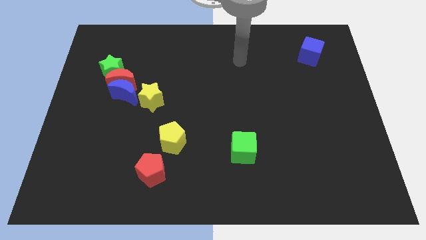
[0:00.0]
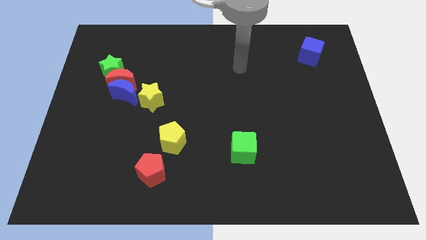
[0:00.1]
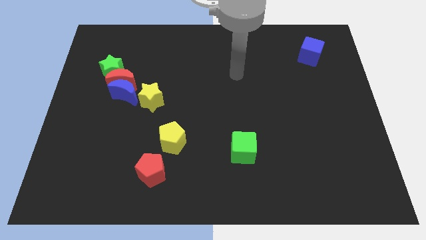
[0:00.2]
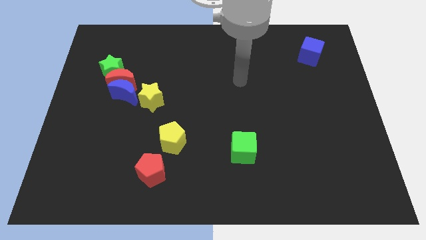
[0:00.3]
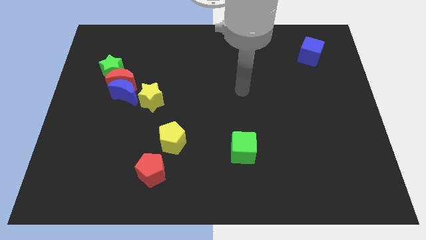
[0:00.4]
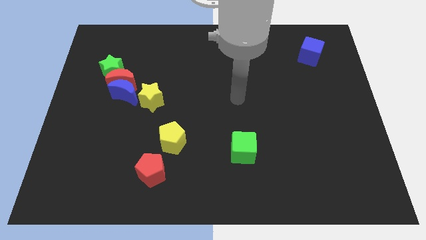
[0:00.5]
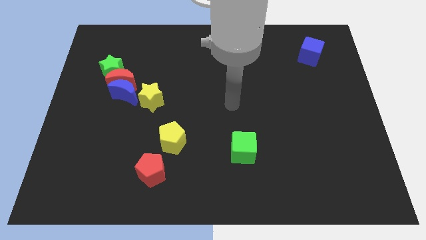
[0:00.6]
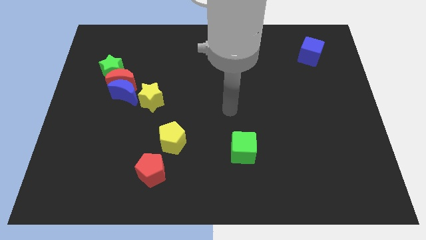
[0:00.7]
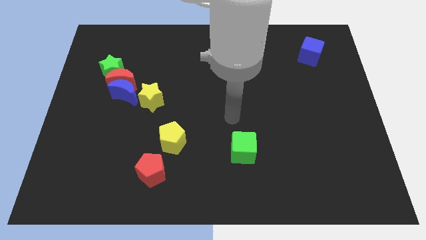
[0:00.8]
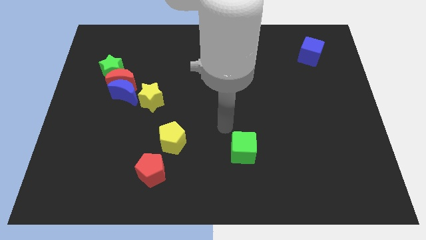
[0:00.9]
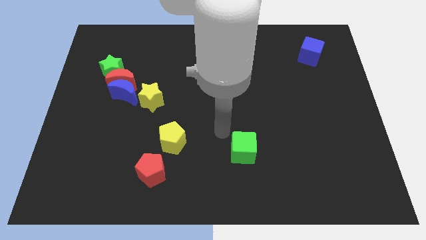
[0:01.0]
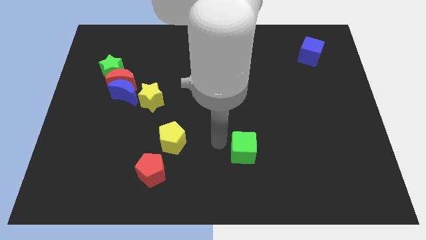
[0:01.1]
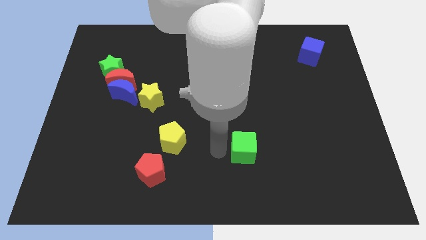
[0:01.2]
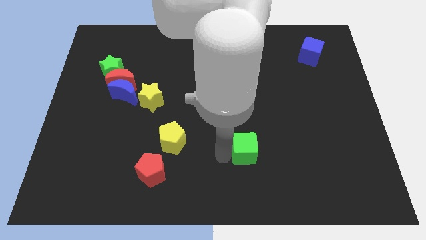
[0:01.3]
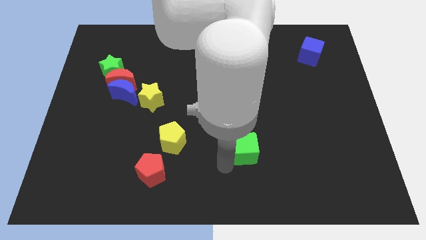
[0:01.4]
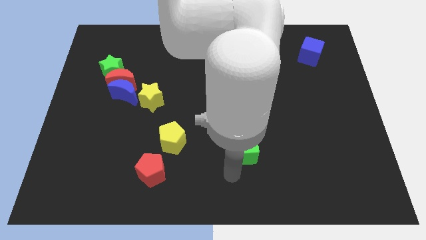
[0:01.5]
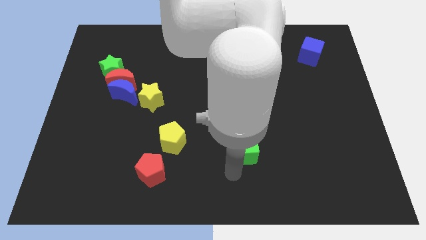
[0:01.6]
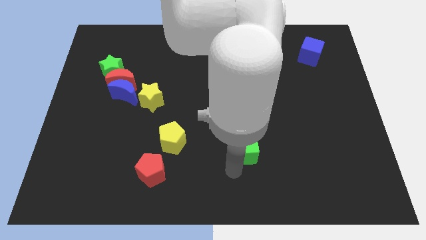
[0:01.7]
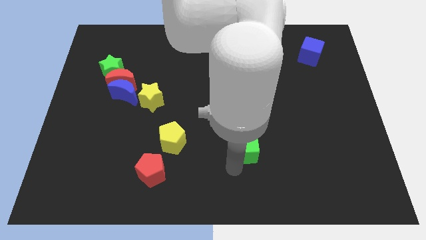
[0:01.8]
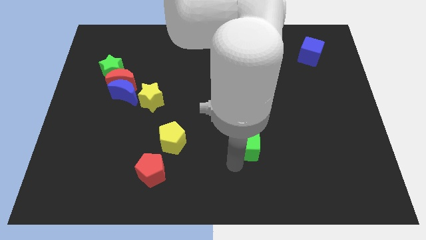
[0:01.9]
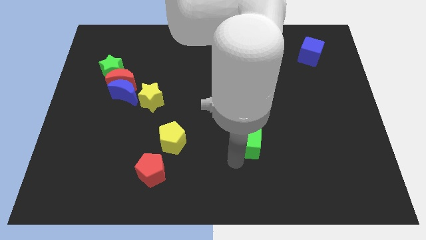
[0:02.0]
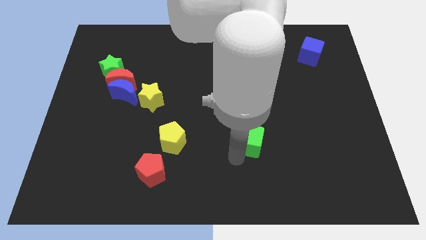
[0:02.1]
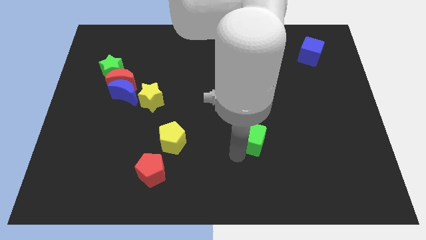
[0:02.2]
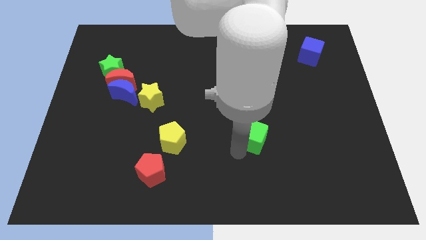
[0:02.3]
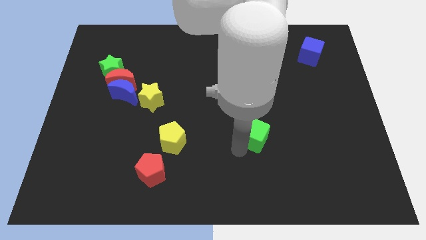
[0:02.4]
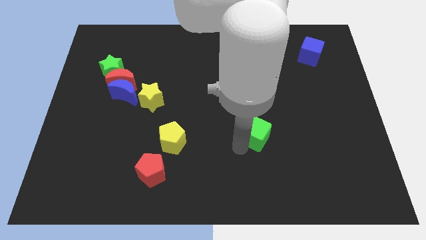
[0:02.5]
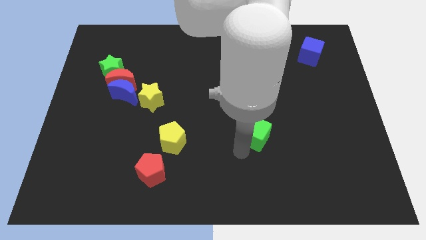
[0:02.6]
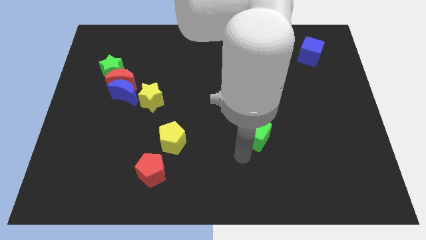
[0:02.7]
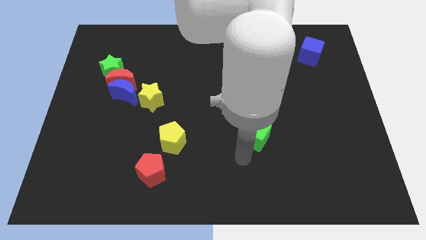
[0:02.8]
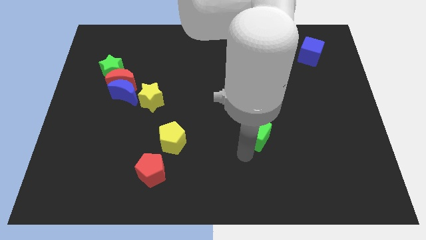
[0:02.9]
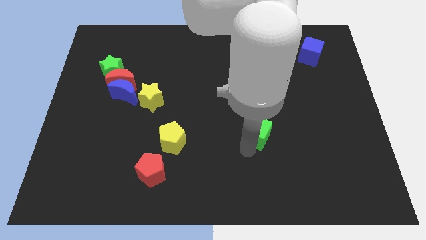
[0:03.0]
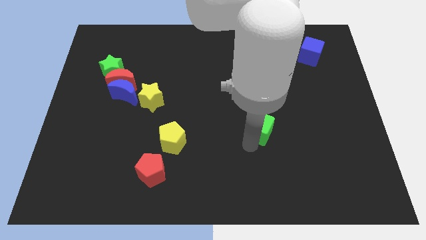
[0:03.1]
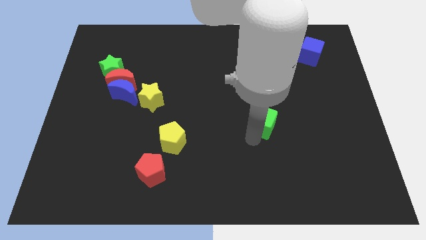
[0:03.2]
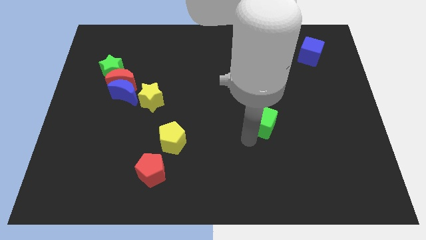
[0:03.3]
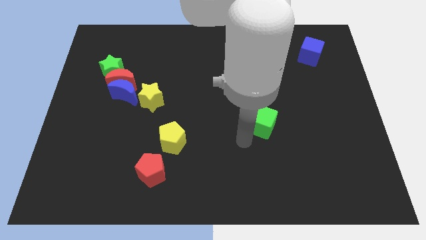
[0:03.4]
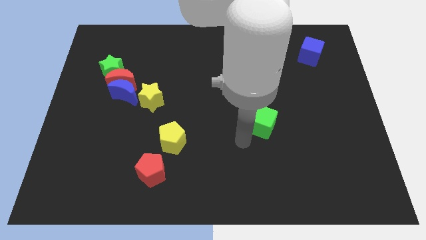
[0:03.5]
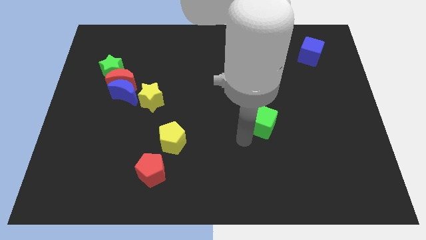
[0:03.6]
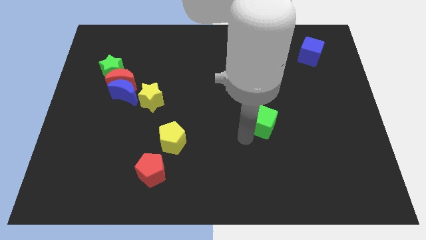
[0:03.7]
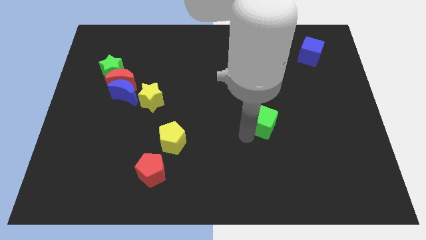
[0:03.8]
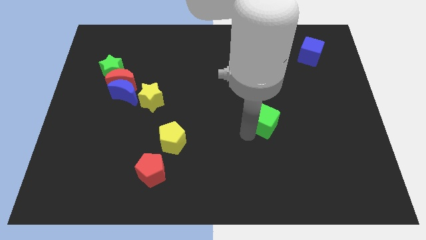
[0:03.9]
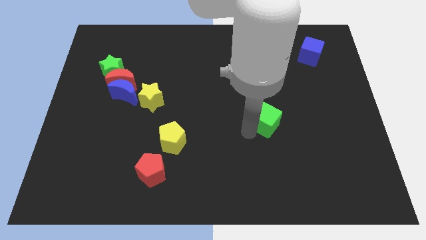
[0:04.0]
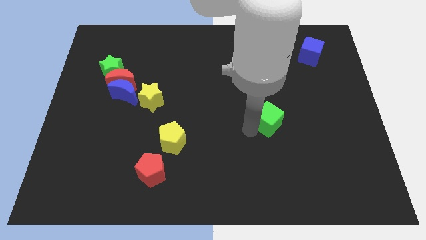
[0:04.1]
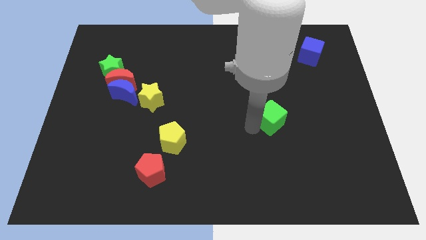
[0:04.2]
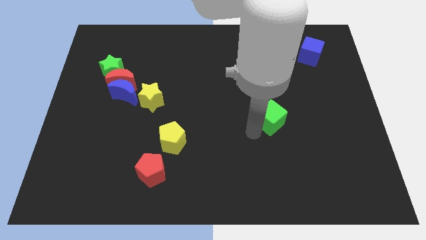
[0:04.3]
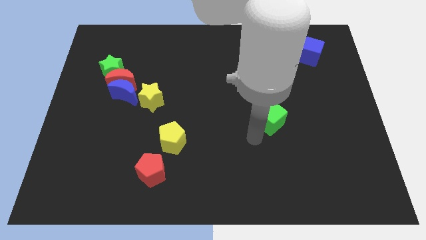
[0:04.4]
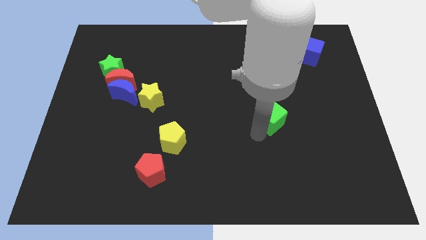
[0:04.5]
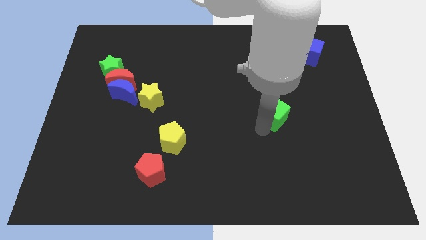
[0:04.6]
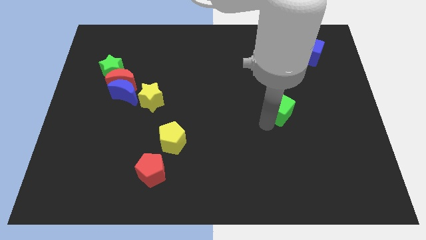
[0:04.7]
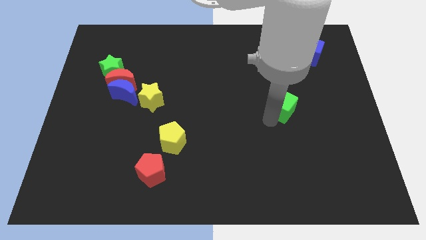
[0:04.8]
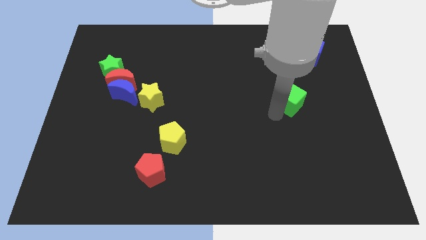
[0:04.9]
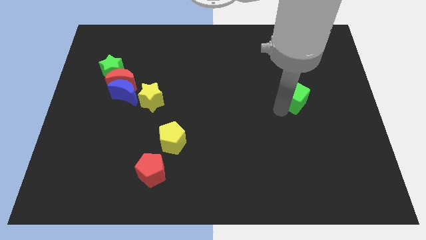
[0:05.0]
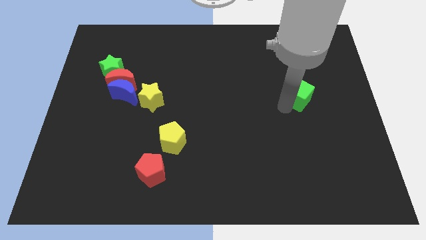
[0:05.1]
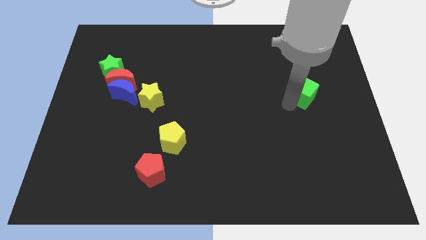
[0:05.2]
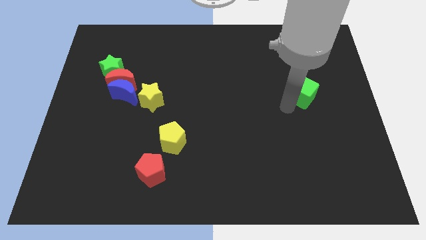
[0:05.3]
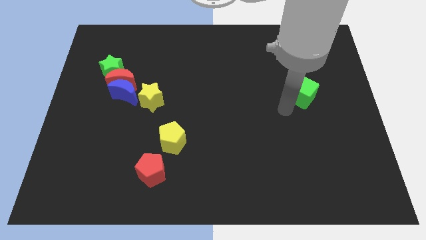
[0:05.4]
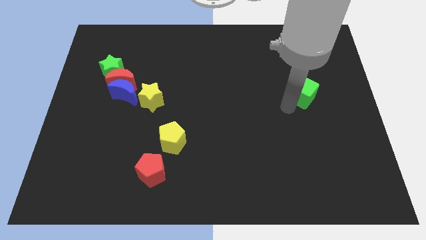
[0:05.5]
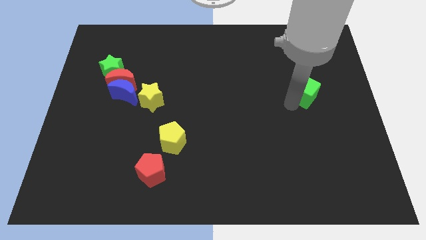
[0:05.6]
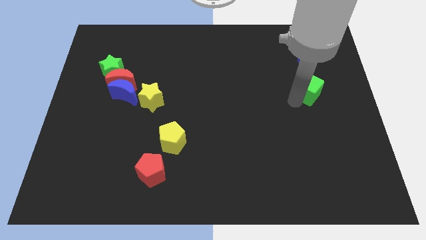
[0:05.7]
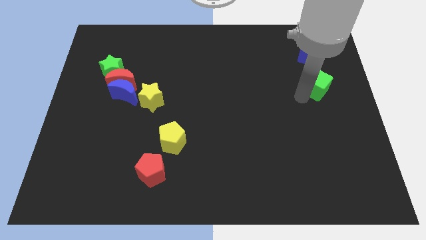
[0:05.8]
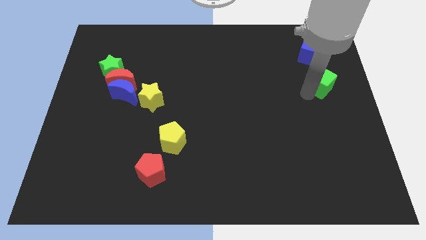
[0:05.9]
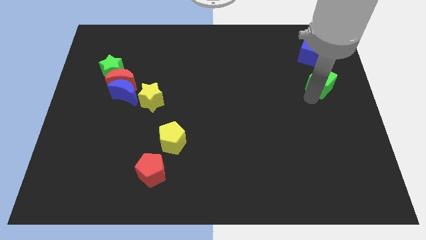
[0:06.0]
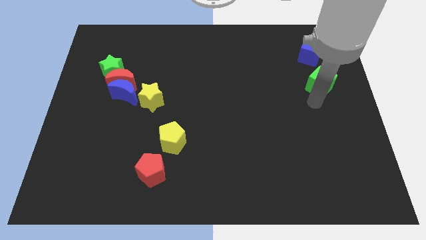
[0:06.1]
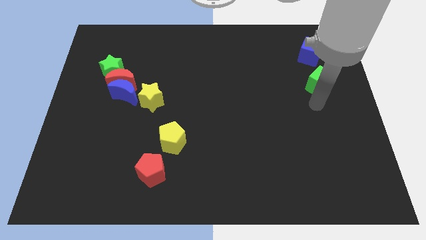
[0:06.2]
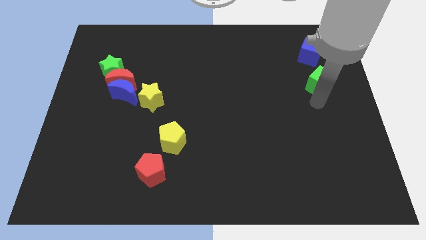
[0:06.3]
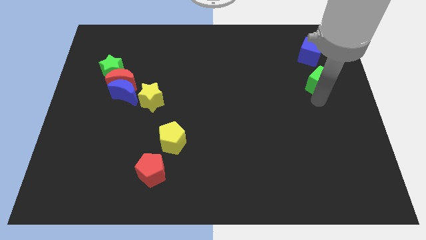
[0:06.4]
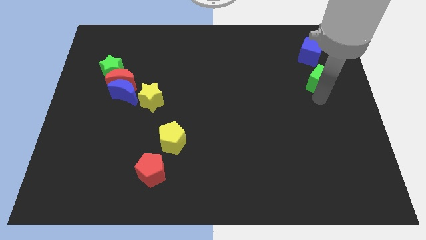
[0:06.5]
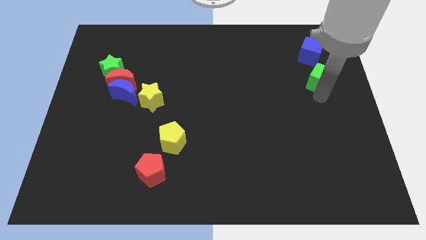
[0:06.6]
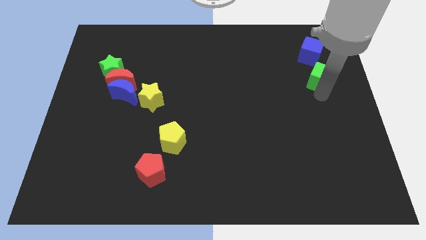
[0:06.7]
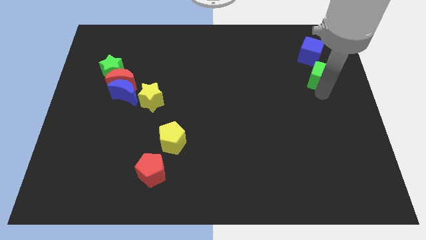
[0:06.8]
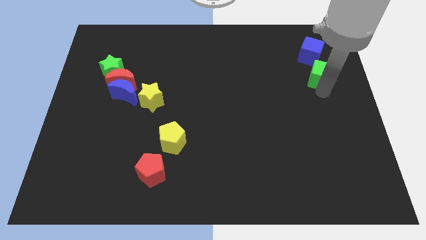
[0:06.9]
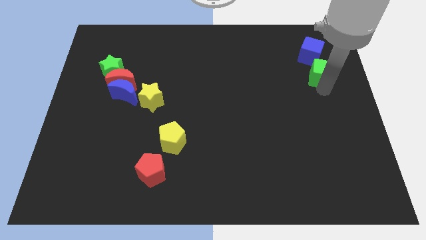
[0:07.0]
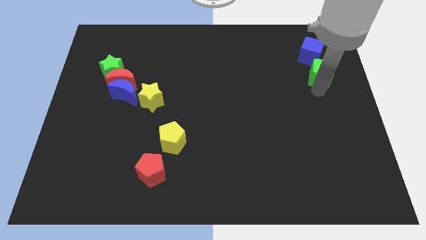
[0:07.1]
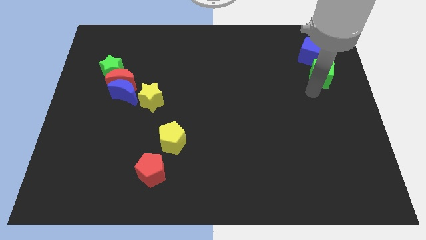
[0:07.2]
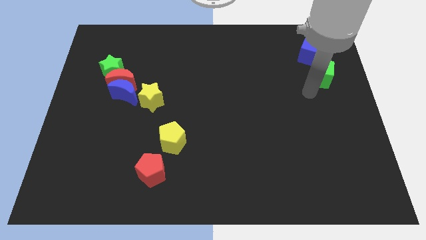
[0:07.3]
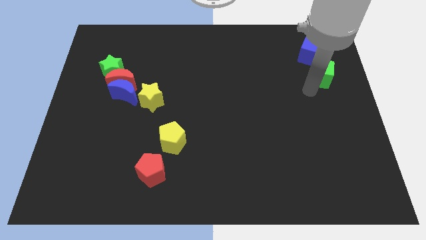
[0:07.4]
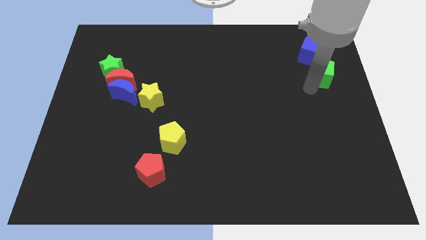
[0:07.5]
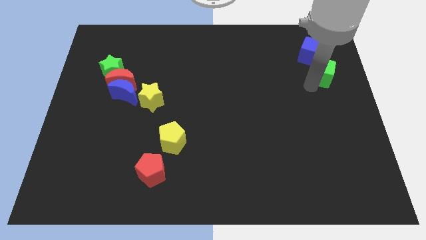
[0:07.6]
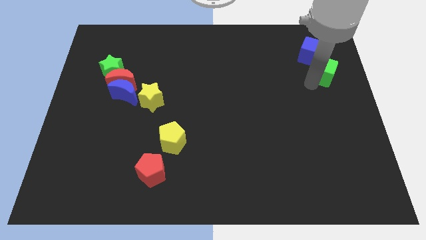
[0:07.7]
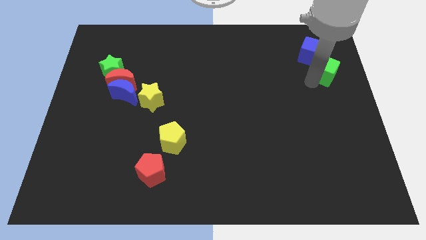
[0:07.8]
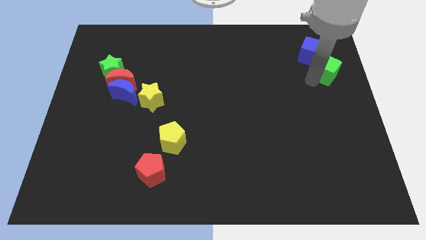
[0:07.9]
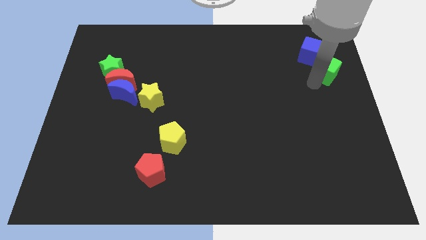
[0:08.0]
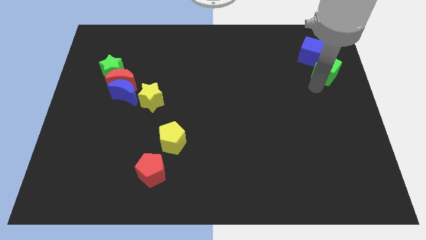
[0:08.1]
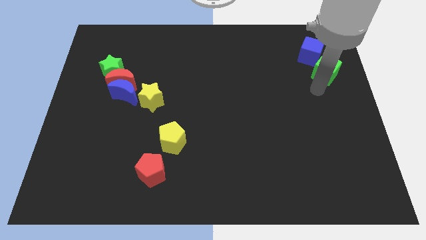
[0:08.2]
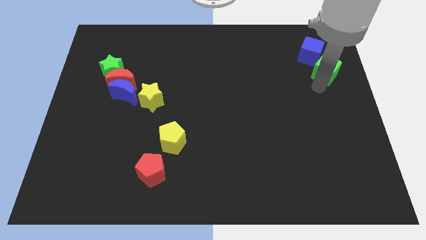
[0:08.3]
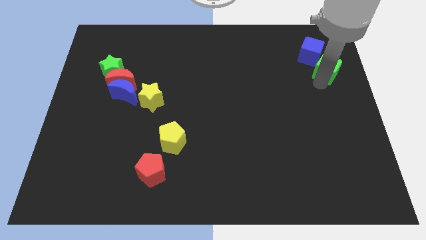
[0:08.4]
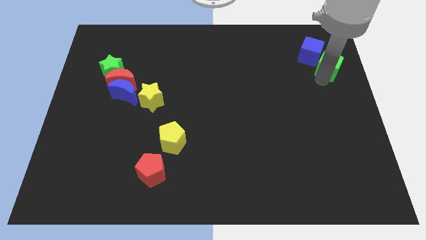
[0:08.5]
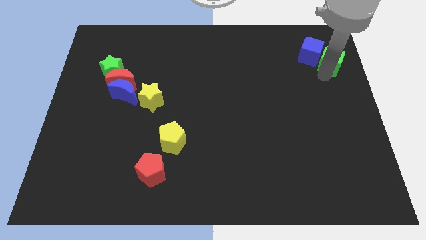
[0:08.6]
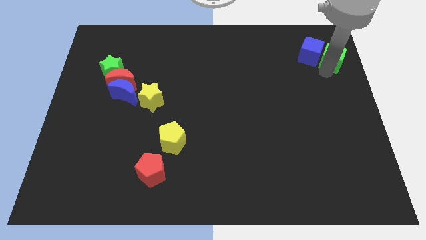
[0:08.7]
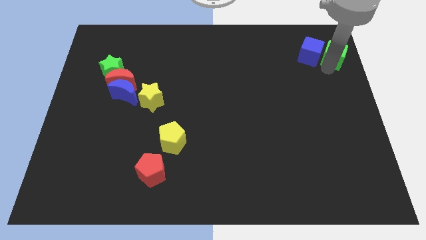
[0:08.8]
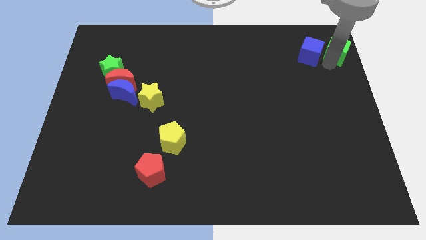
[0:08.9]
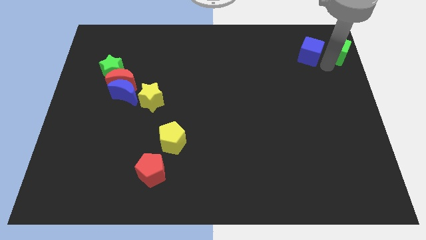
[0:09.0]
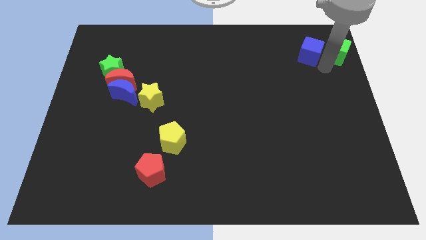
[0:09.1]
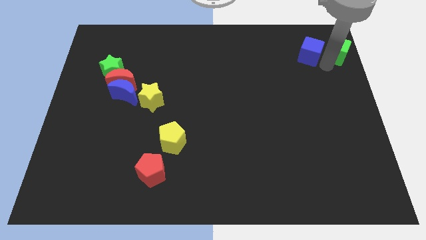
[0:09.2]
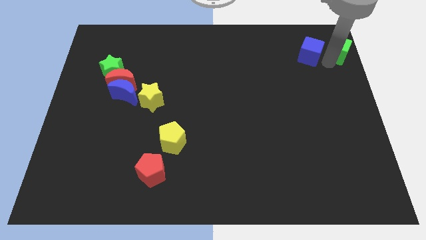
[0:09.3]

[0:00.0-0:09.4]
put the green cube to the top right
